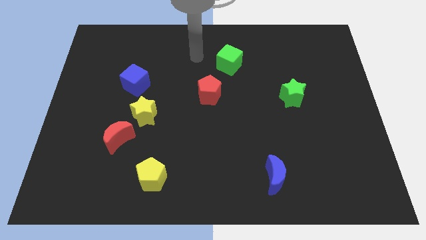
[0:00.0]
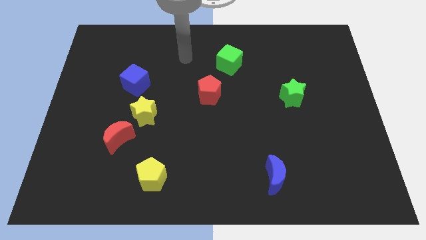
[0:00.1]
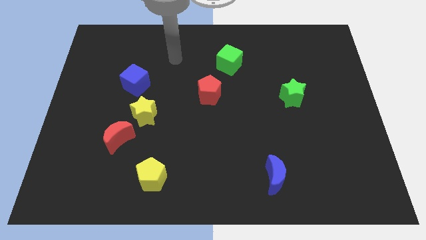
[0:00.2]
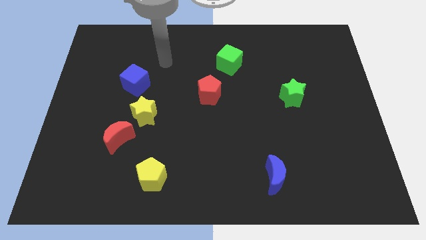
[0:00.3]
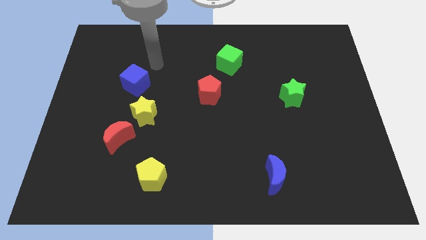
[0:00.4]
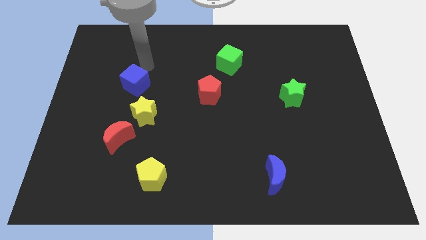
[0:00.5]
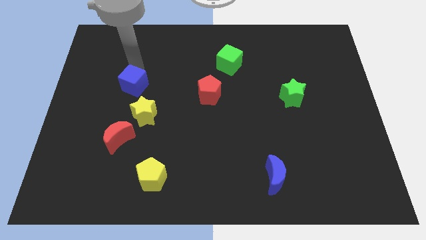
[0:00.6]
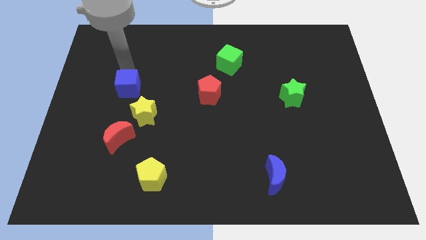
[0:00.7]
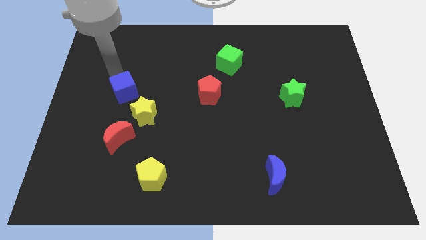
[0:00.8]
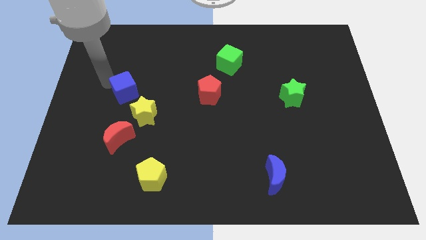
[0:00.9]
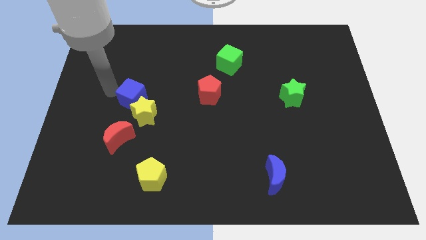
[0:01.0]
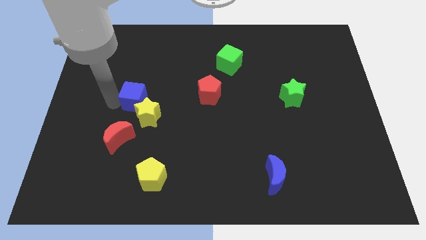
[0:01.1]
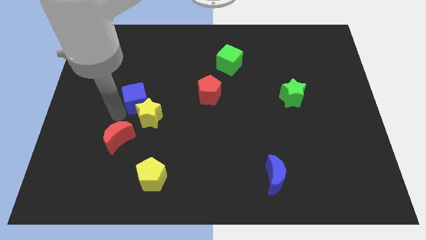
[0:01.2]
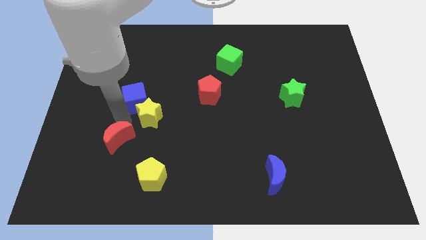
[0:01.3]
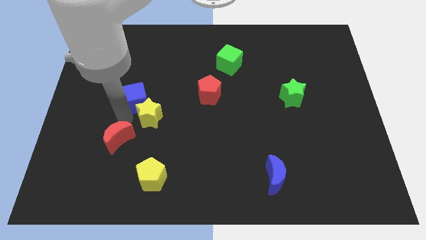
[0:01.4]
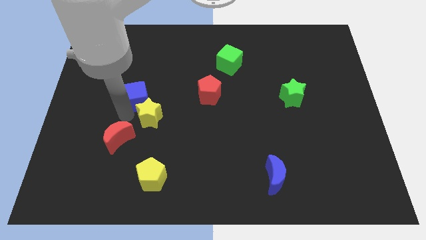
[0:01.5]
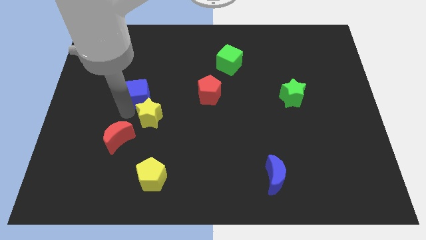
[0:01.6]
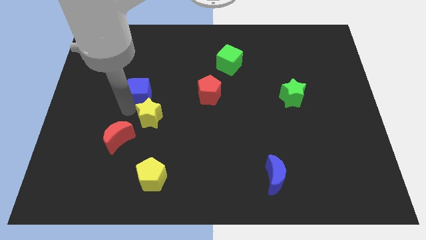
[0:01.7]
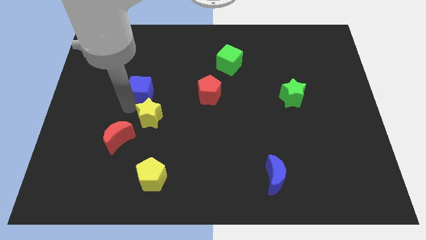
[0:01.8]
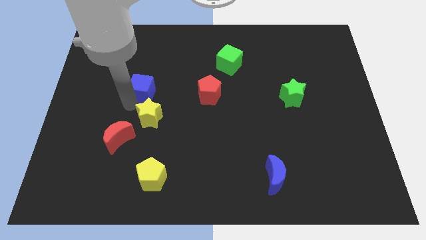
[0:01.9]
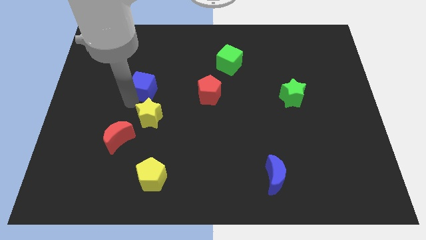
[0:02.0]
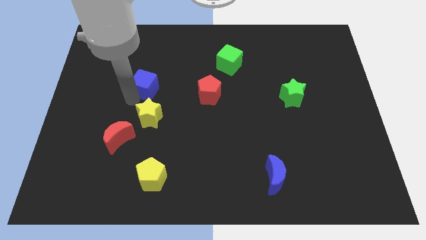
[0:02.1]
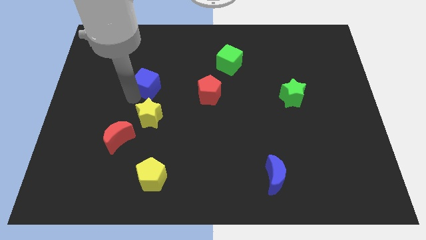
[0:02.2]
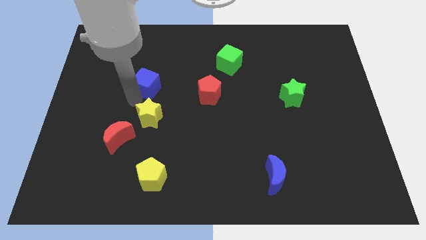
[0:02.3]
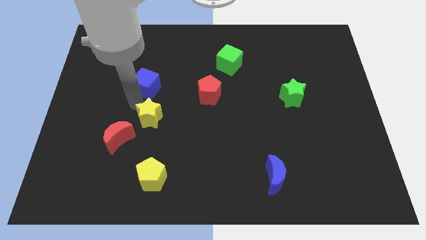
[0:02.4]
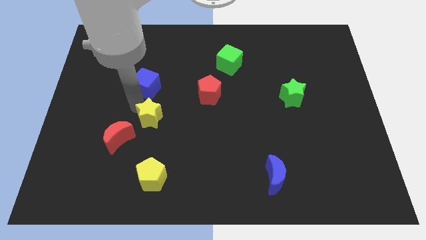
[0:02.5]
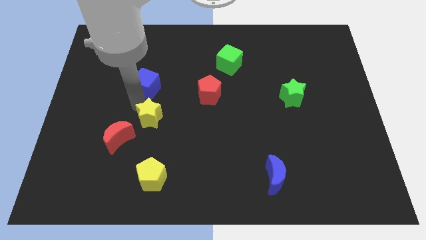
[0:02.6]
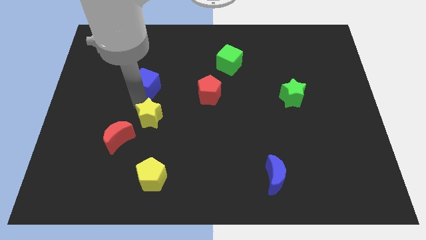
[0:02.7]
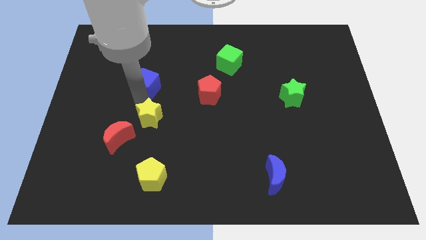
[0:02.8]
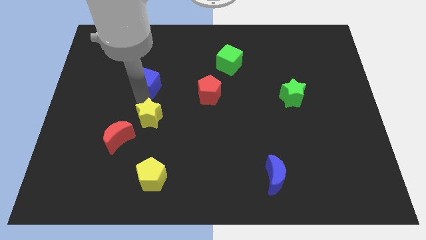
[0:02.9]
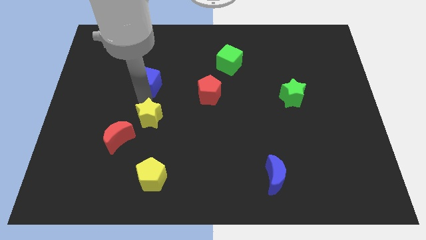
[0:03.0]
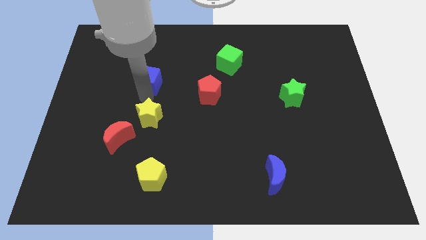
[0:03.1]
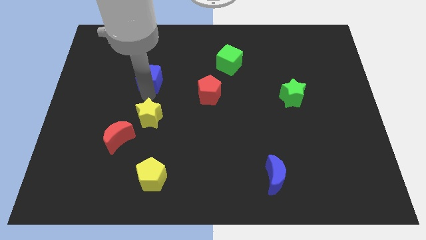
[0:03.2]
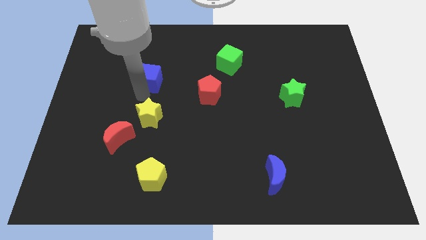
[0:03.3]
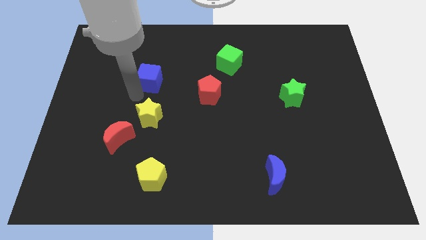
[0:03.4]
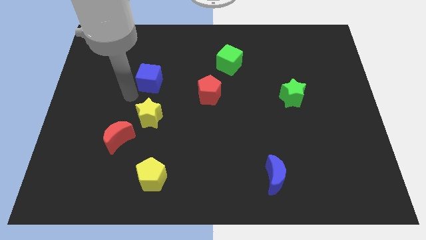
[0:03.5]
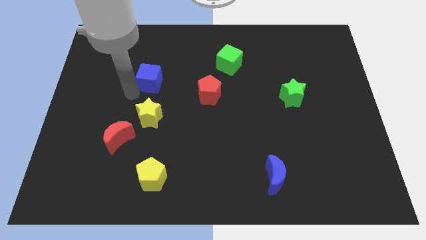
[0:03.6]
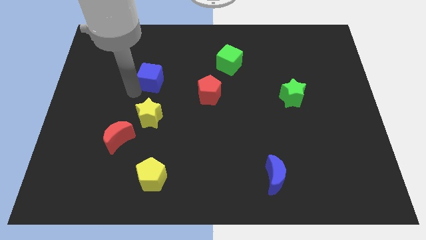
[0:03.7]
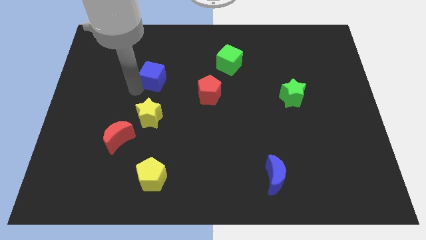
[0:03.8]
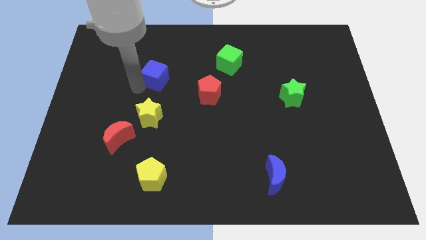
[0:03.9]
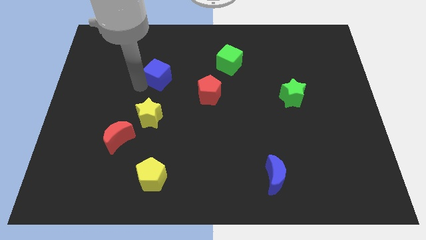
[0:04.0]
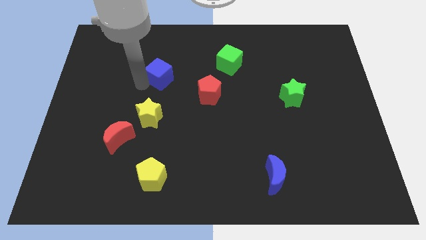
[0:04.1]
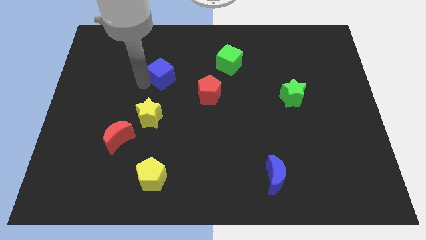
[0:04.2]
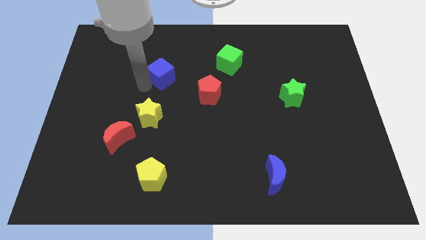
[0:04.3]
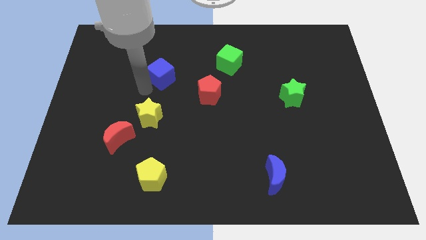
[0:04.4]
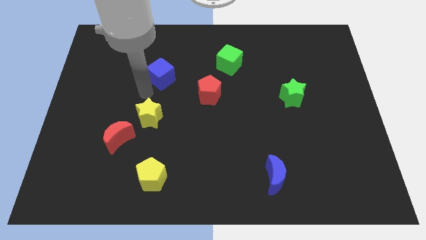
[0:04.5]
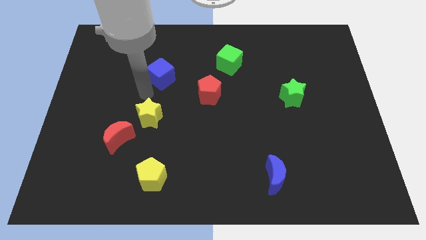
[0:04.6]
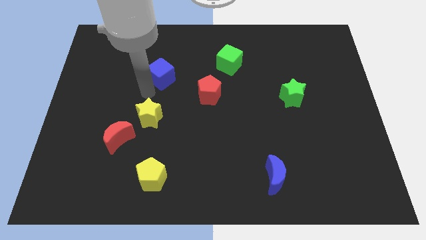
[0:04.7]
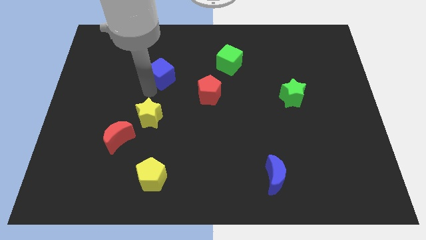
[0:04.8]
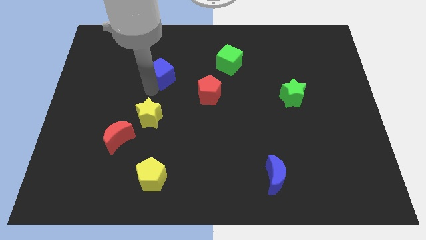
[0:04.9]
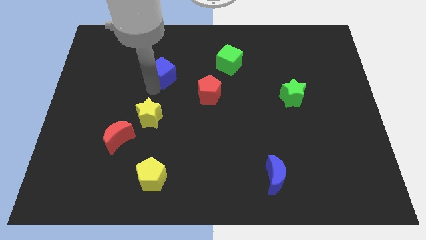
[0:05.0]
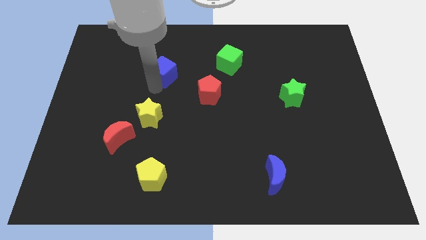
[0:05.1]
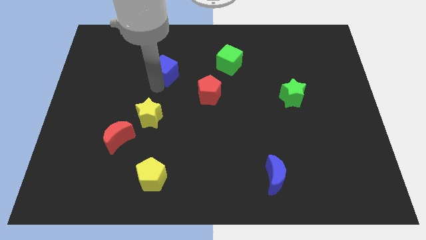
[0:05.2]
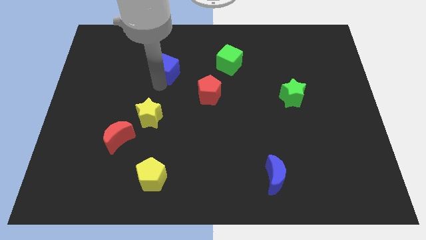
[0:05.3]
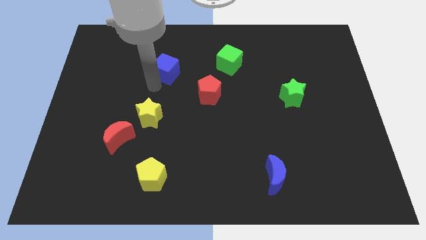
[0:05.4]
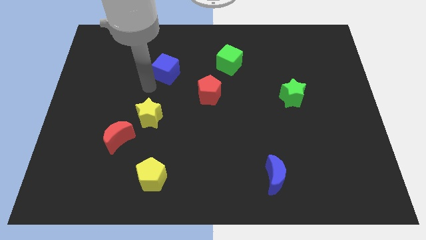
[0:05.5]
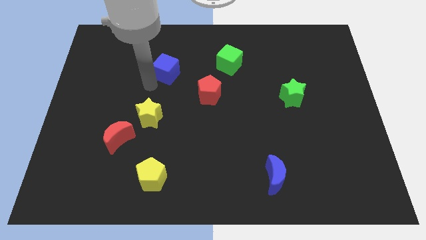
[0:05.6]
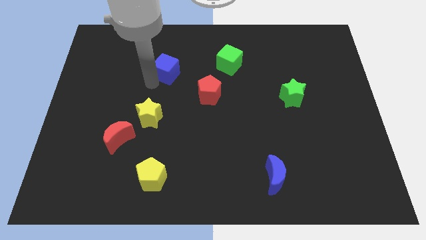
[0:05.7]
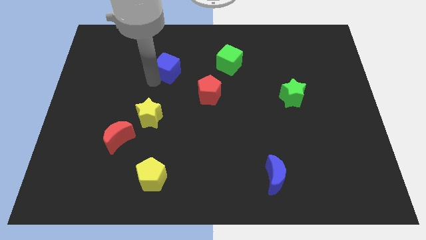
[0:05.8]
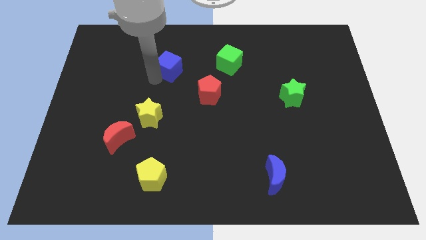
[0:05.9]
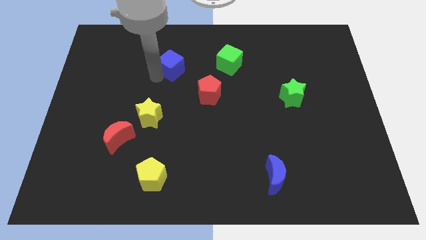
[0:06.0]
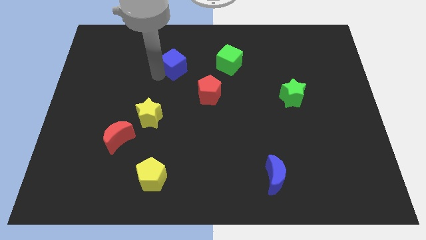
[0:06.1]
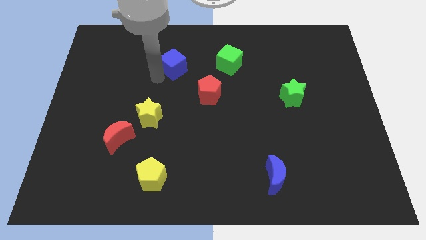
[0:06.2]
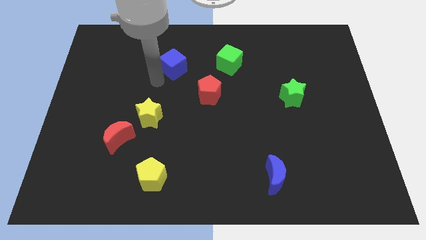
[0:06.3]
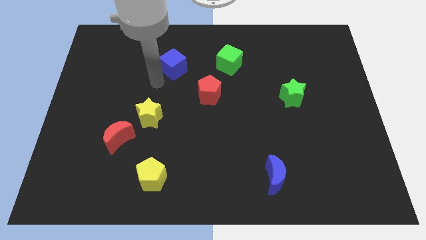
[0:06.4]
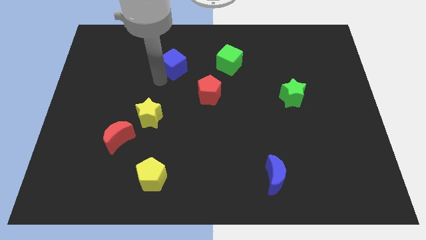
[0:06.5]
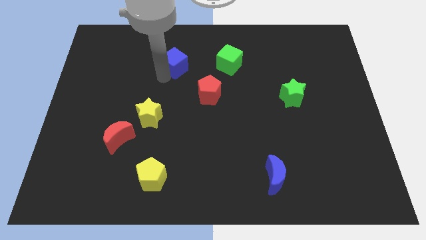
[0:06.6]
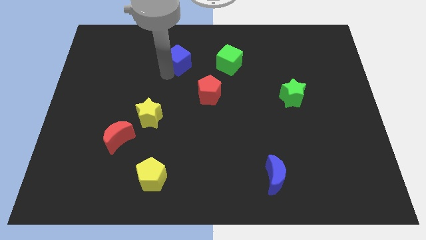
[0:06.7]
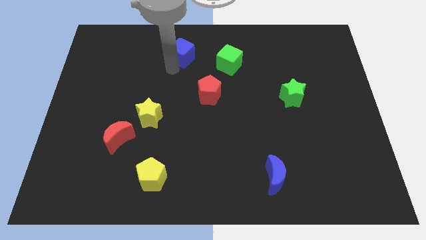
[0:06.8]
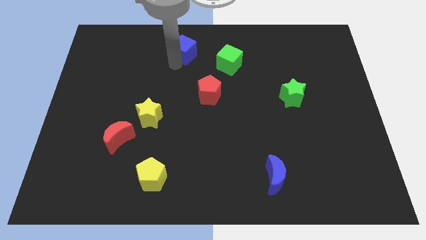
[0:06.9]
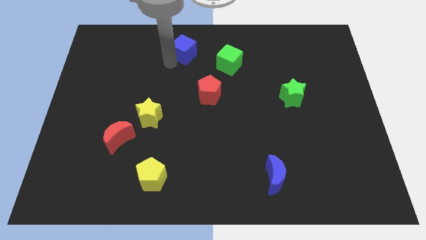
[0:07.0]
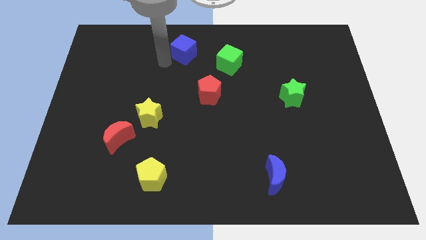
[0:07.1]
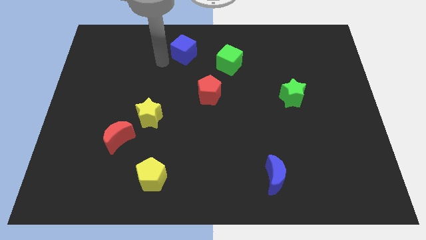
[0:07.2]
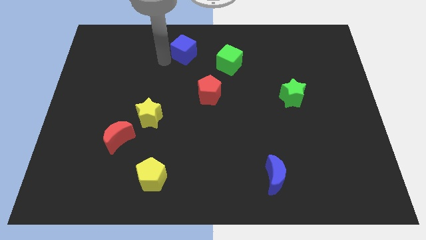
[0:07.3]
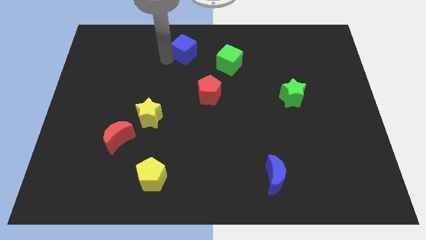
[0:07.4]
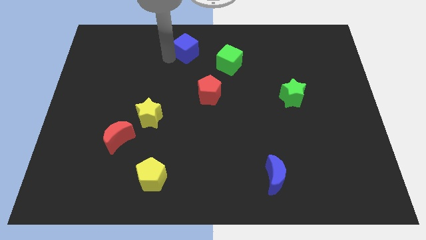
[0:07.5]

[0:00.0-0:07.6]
slide the blue cube to the towards your base
